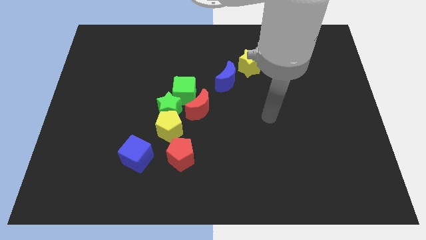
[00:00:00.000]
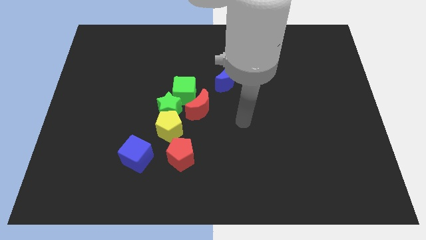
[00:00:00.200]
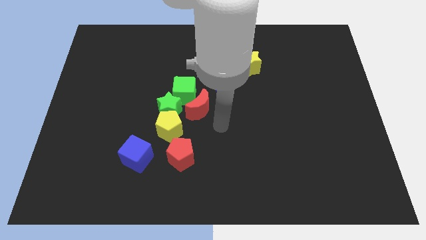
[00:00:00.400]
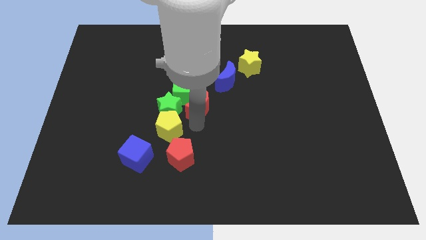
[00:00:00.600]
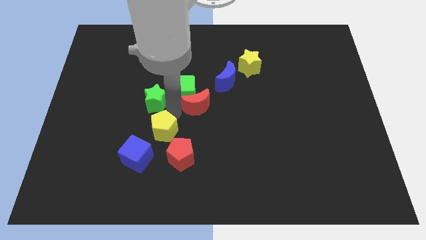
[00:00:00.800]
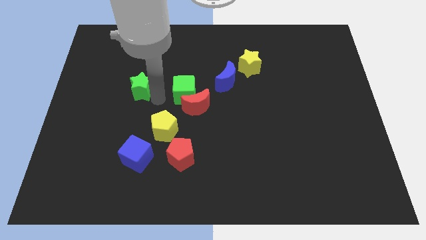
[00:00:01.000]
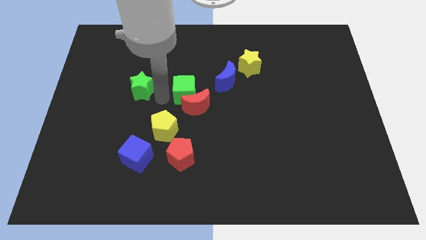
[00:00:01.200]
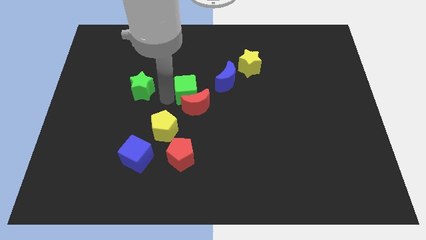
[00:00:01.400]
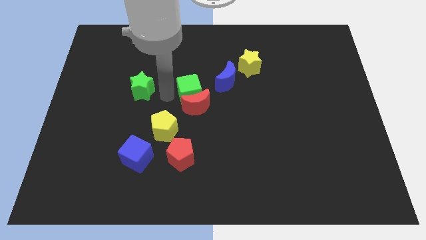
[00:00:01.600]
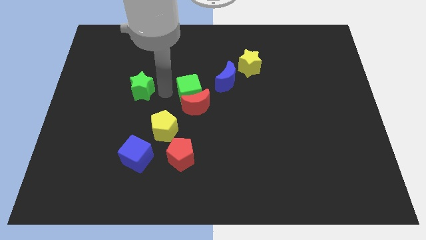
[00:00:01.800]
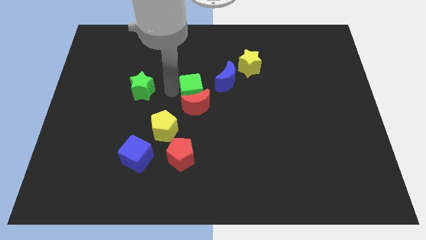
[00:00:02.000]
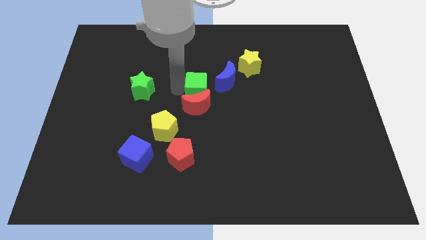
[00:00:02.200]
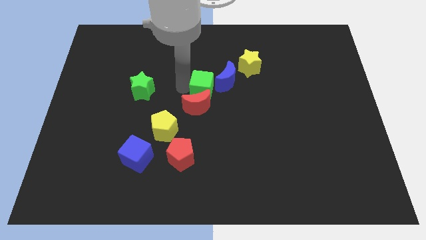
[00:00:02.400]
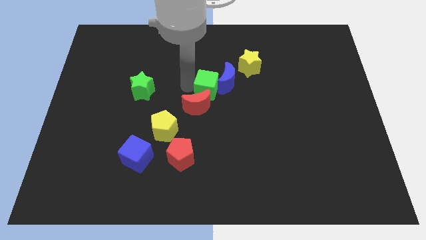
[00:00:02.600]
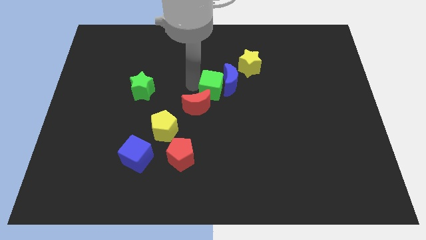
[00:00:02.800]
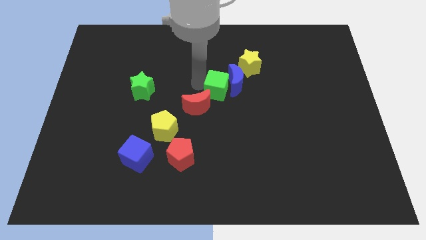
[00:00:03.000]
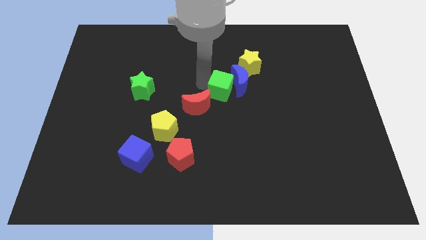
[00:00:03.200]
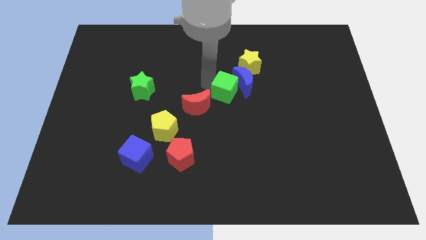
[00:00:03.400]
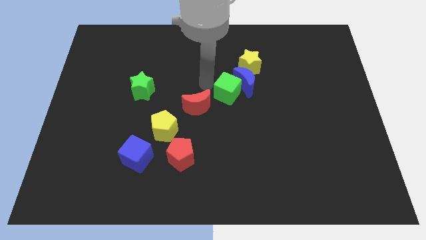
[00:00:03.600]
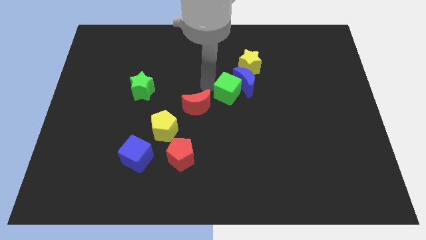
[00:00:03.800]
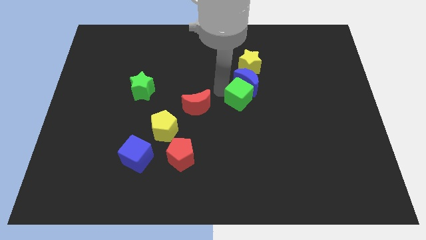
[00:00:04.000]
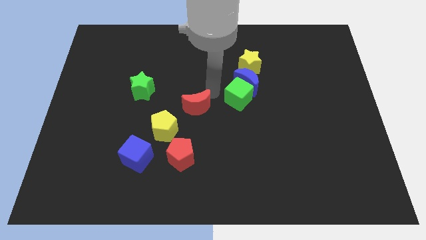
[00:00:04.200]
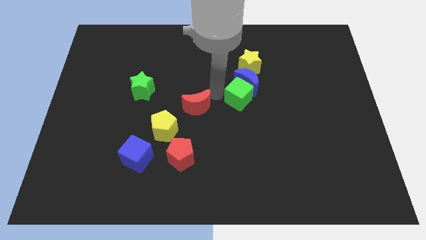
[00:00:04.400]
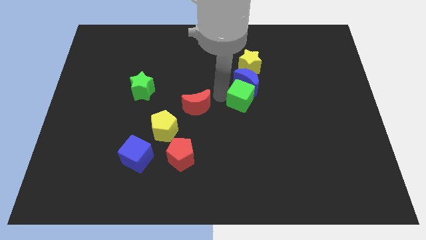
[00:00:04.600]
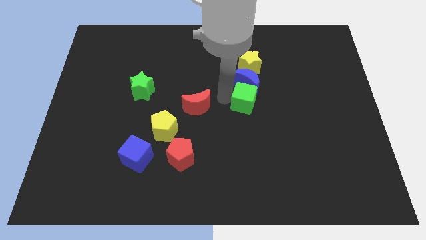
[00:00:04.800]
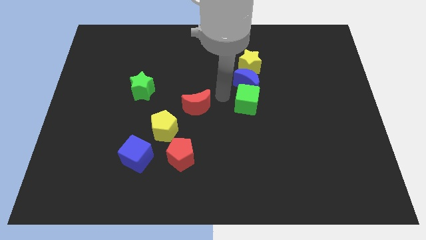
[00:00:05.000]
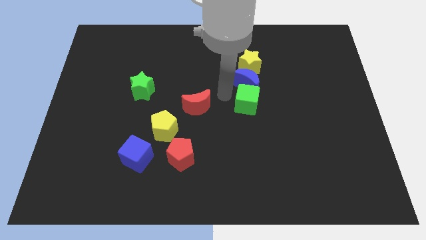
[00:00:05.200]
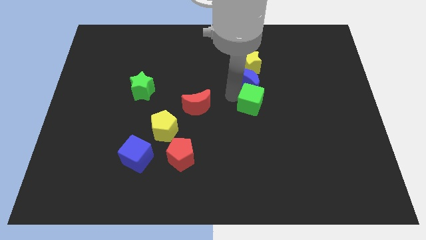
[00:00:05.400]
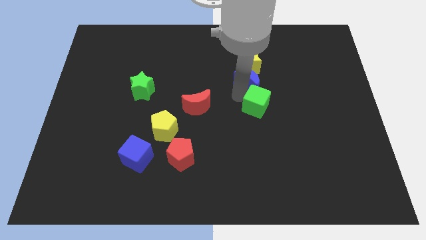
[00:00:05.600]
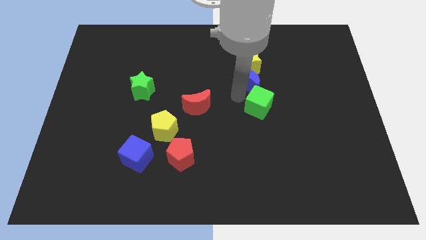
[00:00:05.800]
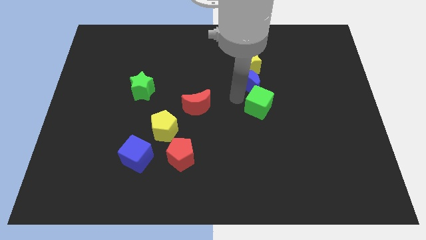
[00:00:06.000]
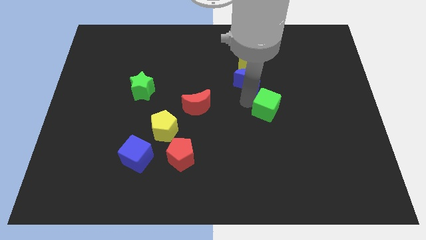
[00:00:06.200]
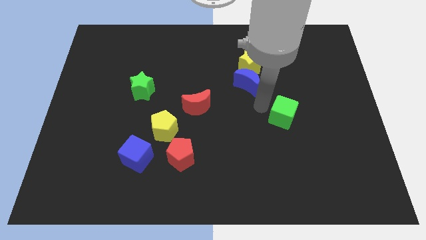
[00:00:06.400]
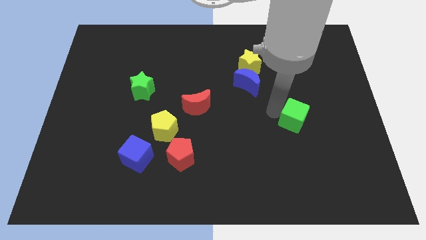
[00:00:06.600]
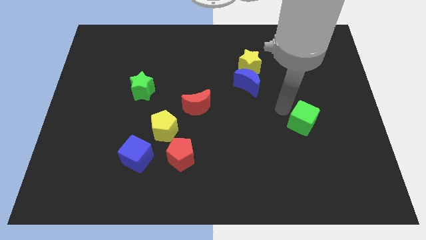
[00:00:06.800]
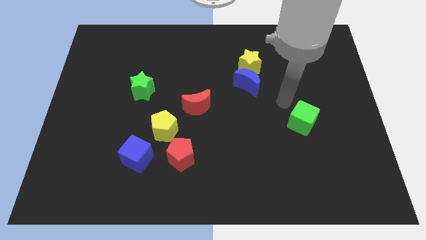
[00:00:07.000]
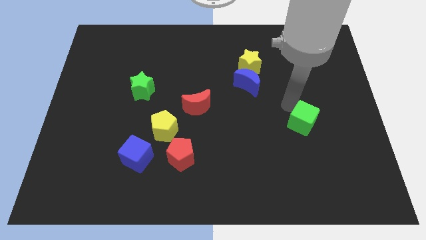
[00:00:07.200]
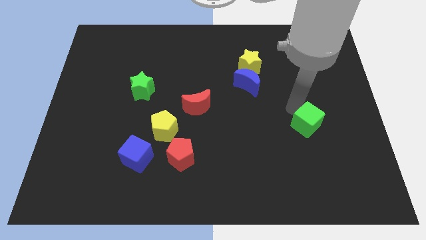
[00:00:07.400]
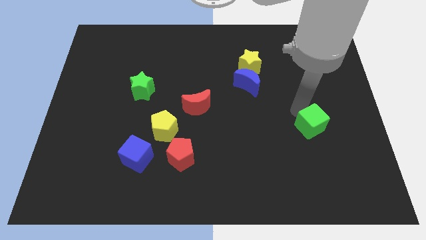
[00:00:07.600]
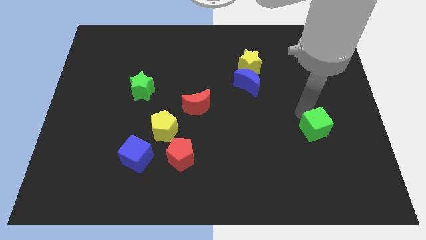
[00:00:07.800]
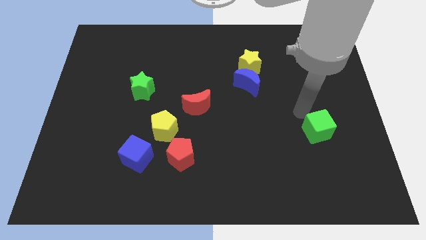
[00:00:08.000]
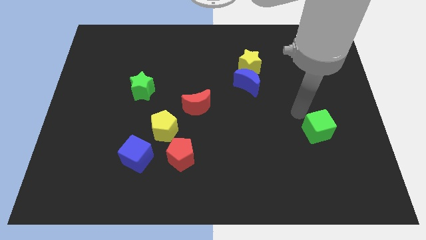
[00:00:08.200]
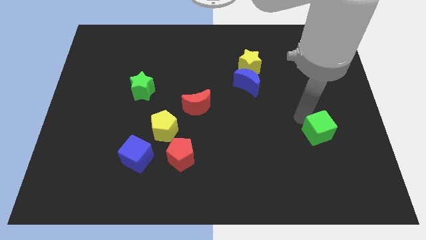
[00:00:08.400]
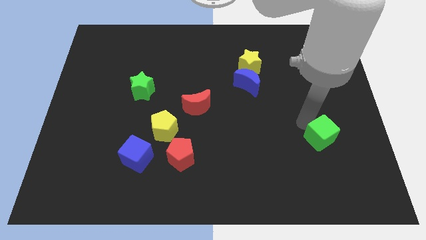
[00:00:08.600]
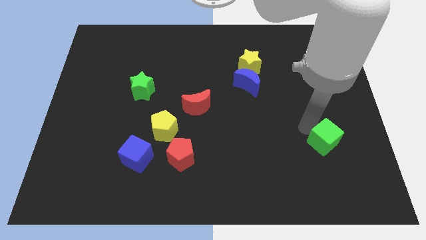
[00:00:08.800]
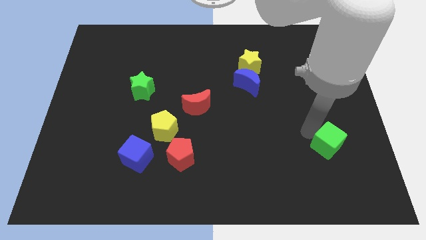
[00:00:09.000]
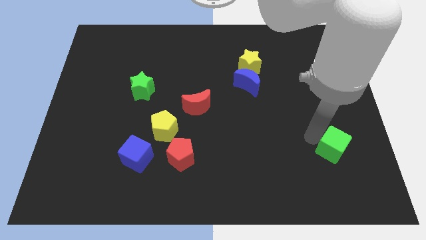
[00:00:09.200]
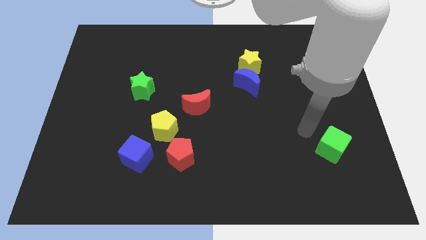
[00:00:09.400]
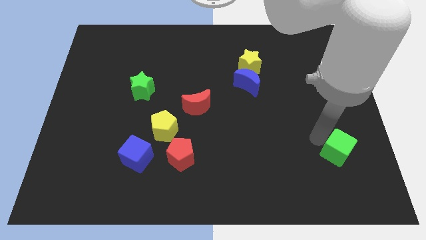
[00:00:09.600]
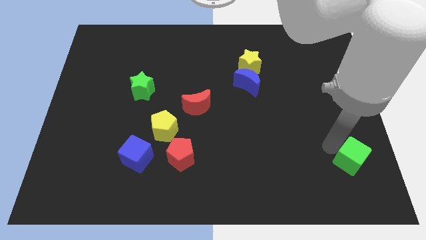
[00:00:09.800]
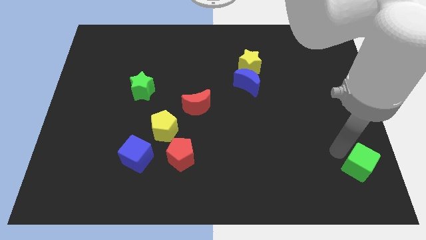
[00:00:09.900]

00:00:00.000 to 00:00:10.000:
slide the green cube to the bottom right of the board

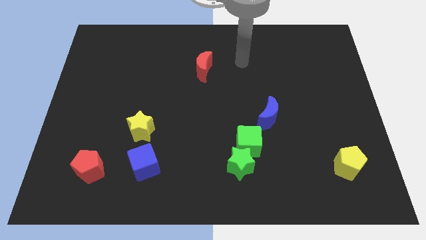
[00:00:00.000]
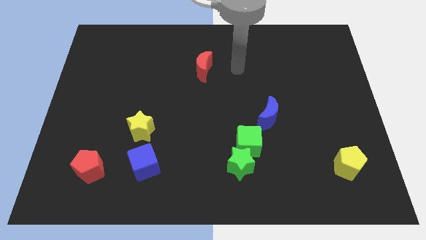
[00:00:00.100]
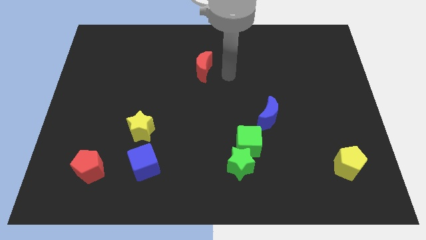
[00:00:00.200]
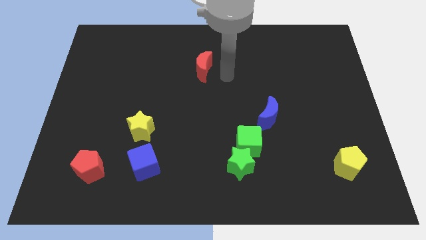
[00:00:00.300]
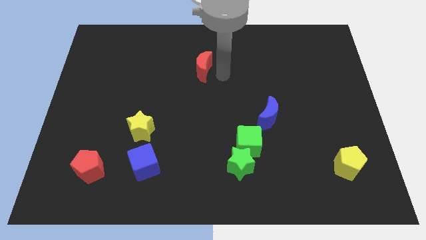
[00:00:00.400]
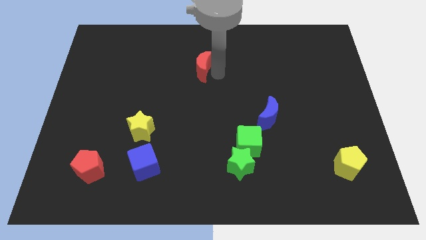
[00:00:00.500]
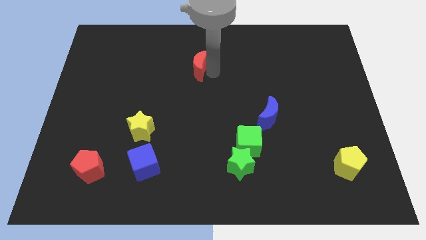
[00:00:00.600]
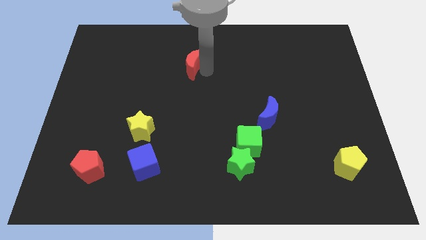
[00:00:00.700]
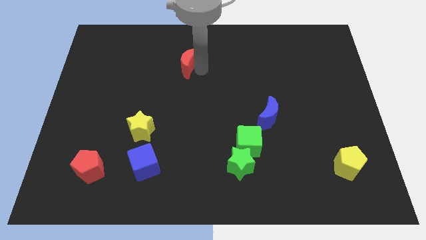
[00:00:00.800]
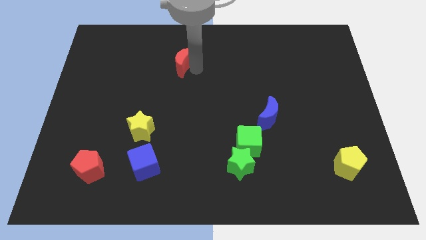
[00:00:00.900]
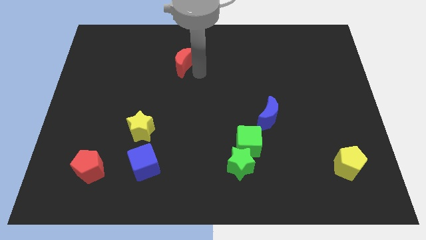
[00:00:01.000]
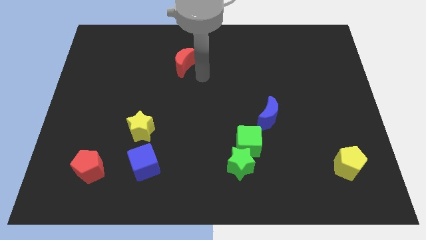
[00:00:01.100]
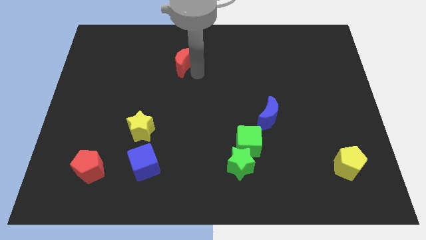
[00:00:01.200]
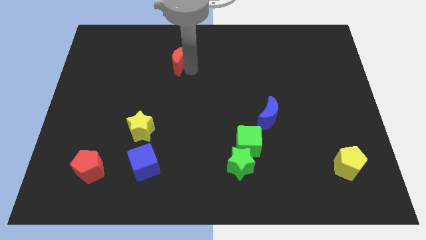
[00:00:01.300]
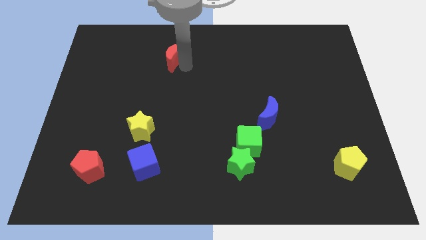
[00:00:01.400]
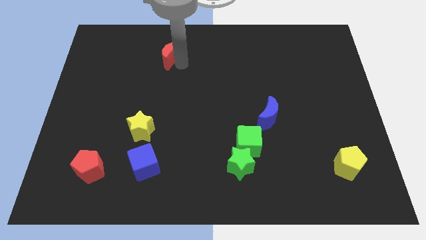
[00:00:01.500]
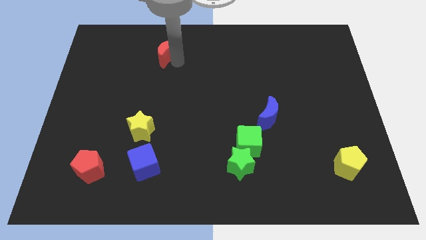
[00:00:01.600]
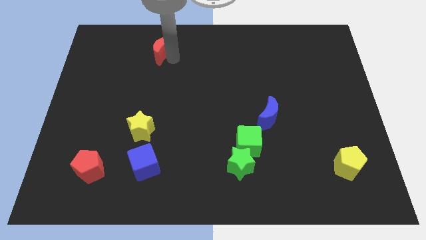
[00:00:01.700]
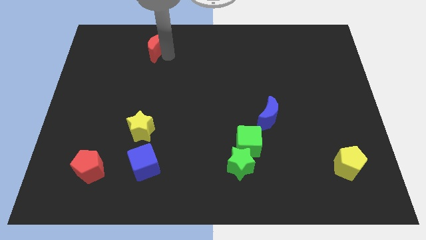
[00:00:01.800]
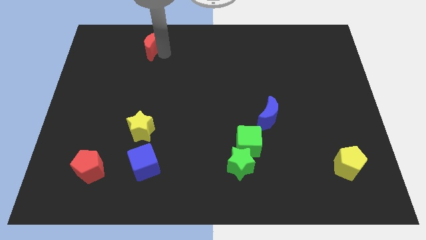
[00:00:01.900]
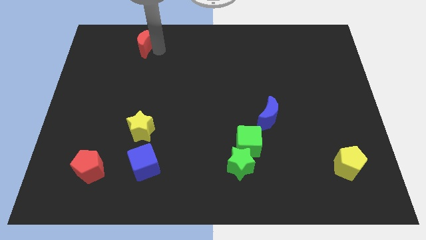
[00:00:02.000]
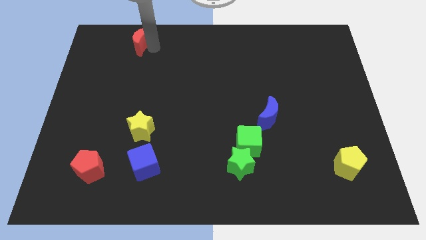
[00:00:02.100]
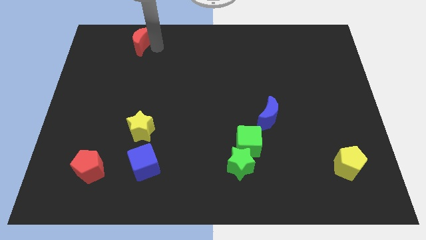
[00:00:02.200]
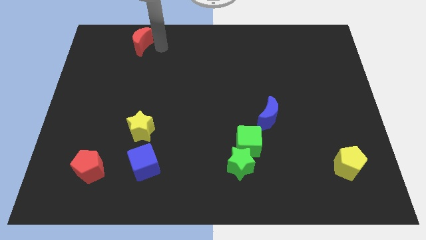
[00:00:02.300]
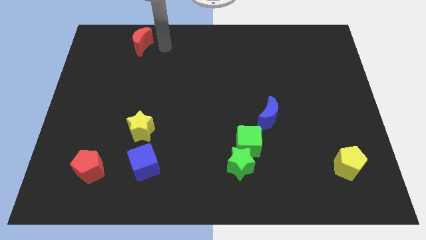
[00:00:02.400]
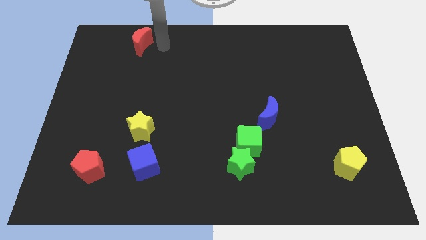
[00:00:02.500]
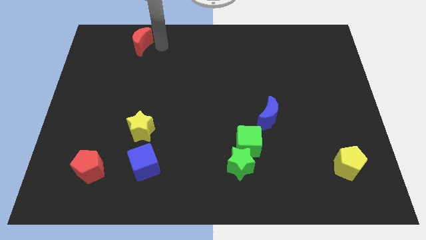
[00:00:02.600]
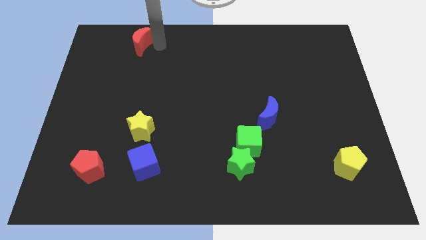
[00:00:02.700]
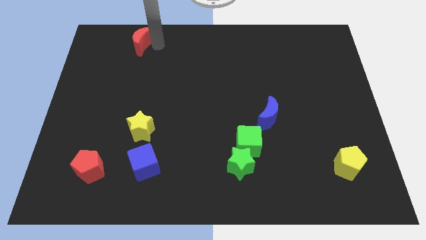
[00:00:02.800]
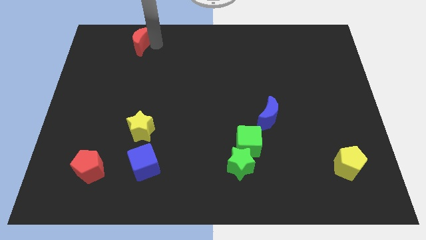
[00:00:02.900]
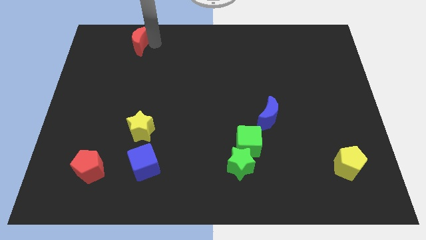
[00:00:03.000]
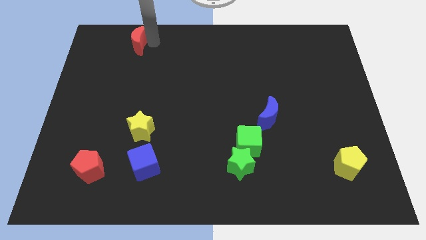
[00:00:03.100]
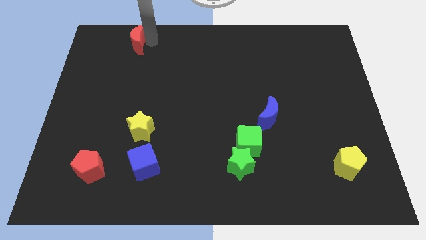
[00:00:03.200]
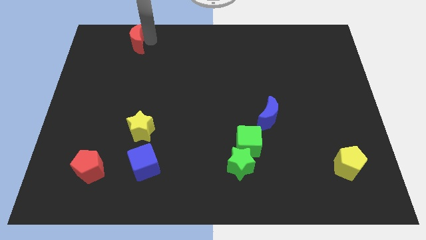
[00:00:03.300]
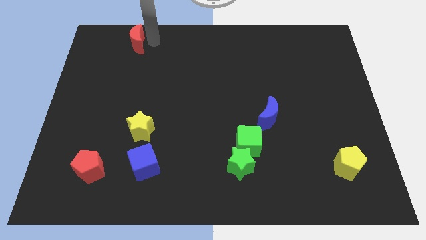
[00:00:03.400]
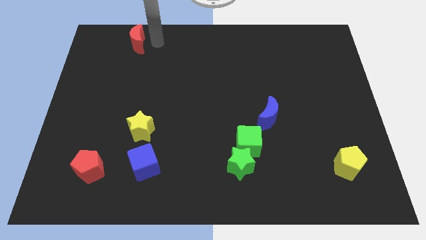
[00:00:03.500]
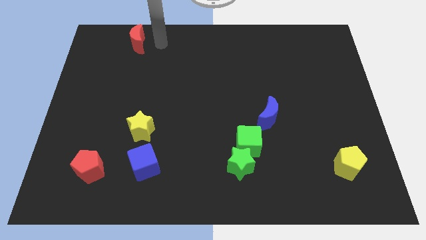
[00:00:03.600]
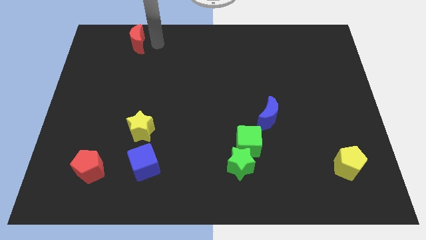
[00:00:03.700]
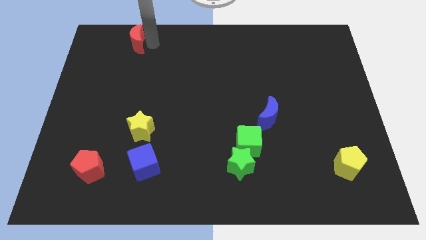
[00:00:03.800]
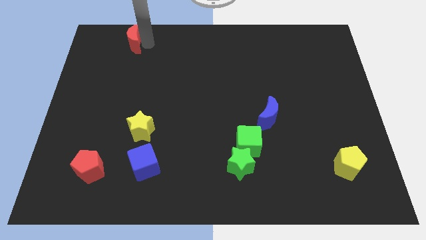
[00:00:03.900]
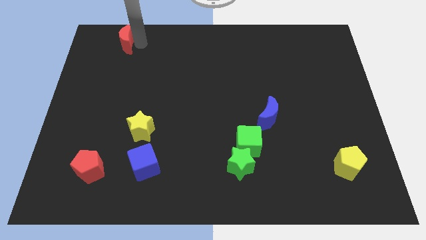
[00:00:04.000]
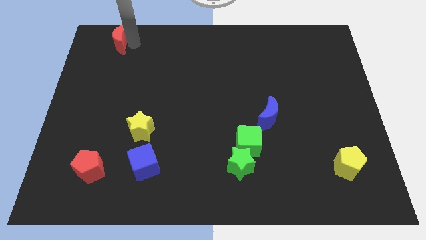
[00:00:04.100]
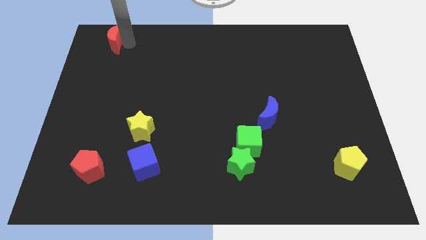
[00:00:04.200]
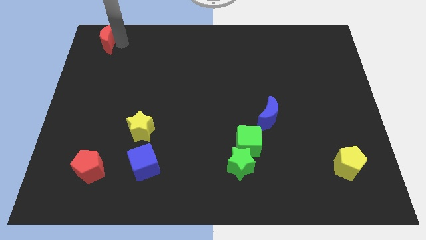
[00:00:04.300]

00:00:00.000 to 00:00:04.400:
slide the red moon to the upper left corner
